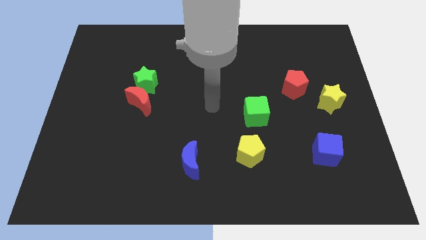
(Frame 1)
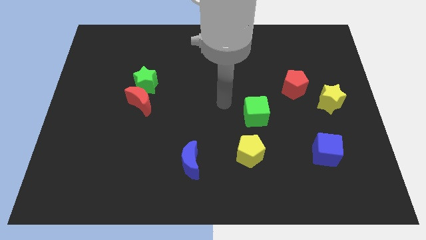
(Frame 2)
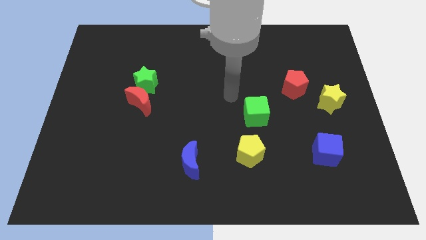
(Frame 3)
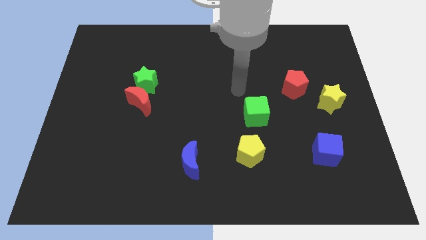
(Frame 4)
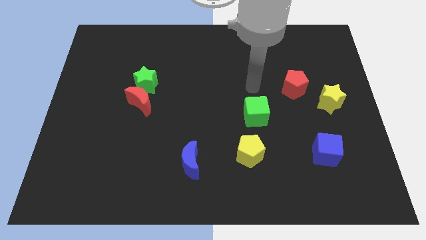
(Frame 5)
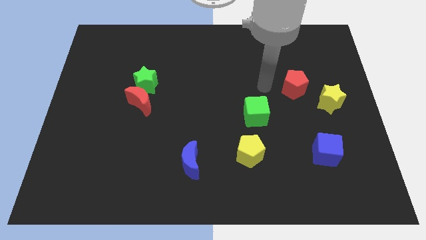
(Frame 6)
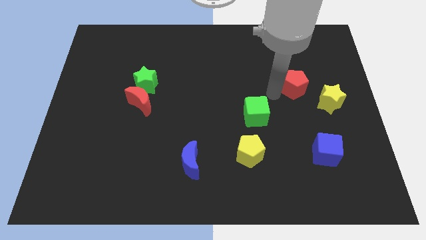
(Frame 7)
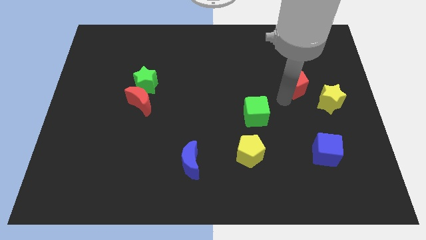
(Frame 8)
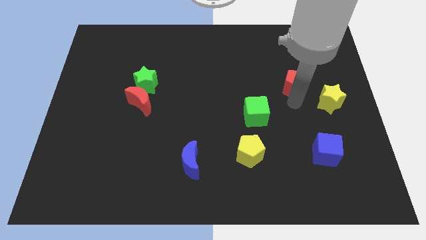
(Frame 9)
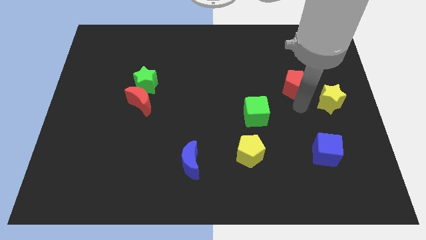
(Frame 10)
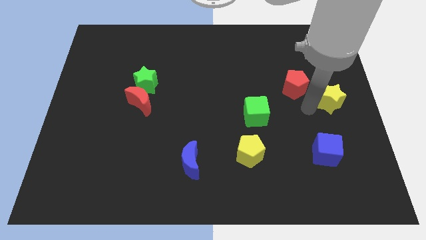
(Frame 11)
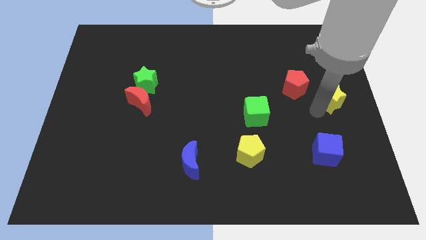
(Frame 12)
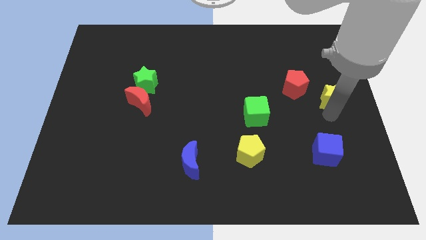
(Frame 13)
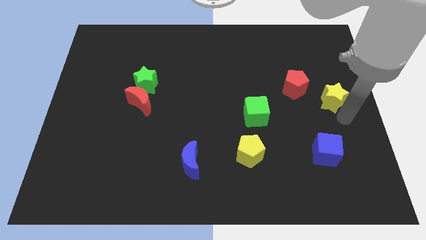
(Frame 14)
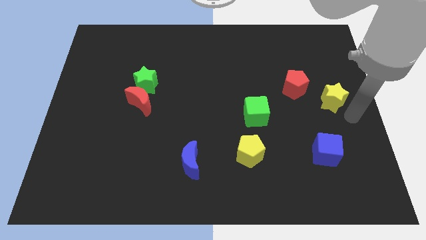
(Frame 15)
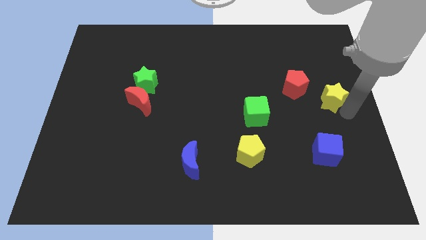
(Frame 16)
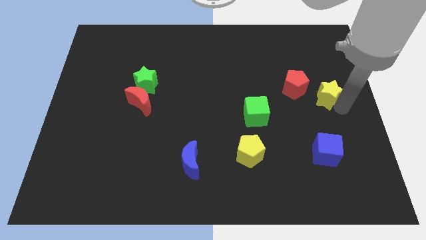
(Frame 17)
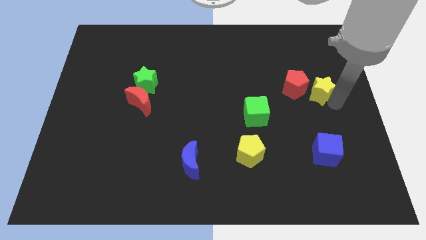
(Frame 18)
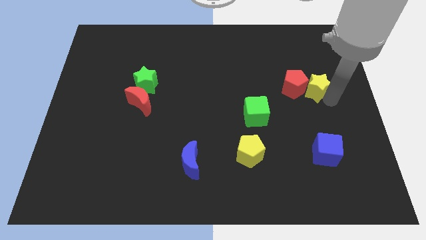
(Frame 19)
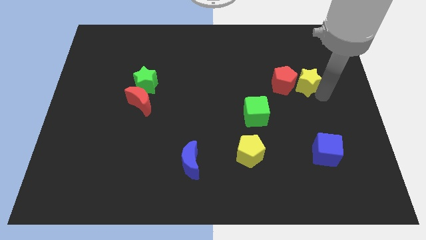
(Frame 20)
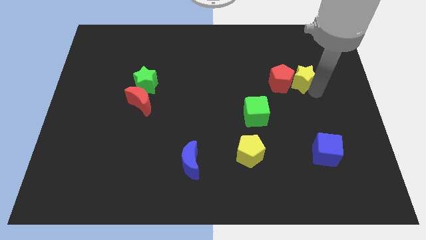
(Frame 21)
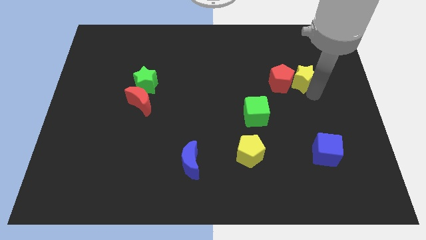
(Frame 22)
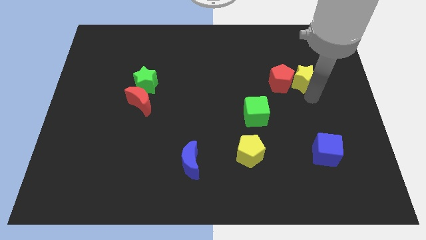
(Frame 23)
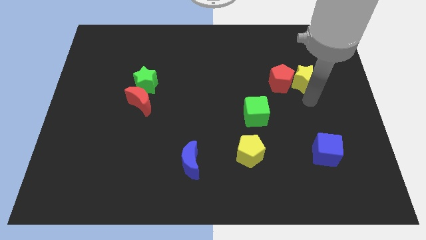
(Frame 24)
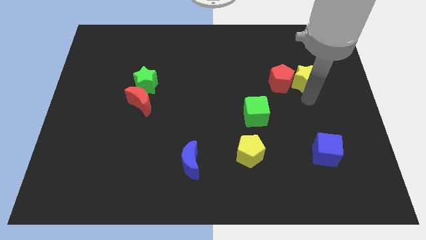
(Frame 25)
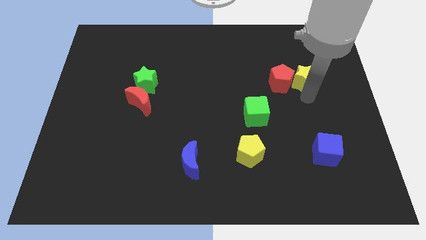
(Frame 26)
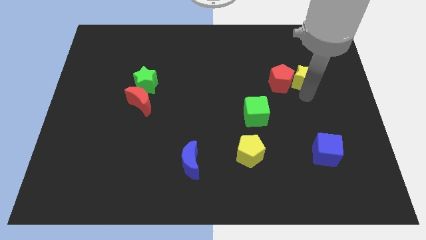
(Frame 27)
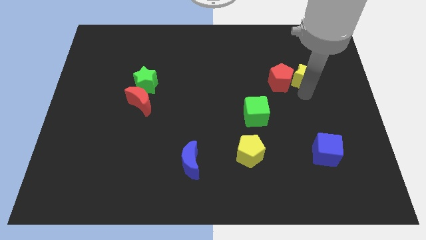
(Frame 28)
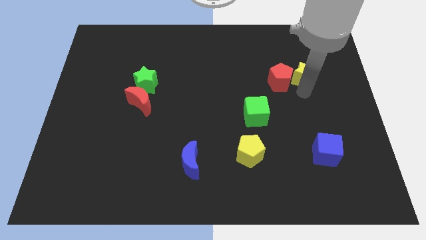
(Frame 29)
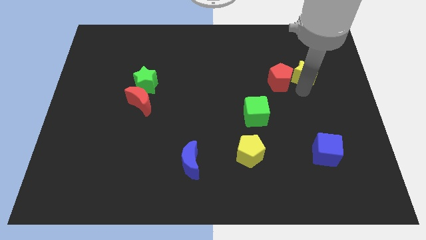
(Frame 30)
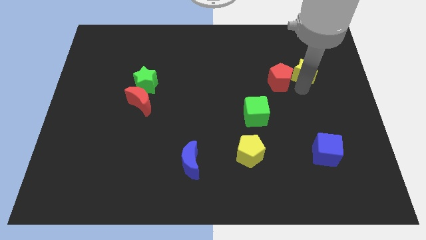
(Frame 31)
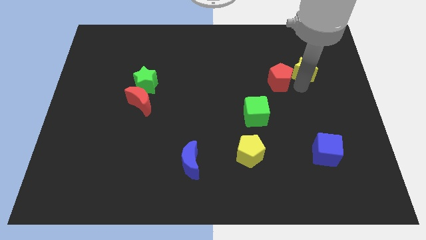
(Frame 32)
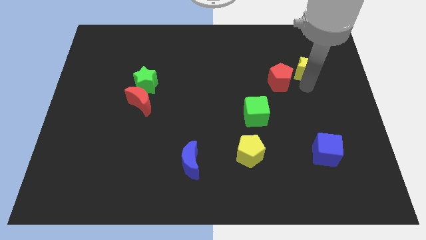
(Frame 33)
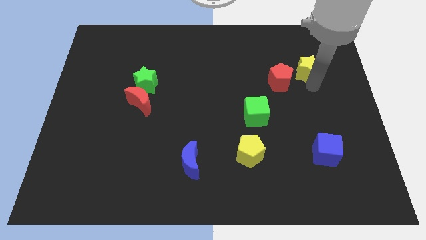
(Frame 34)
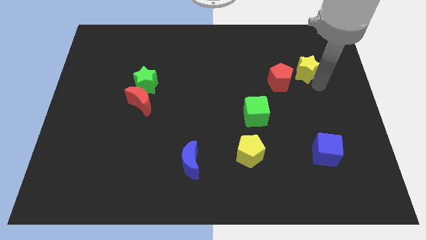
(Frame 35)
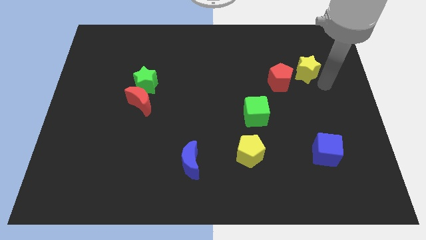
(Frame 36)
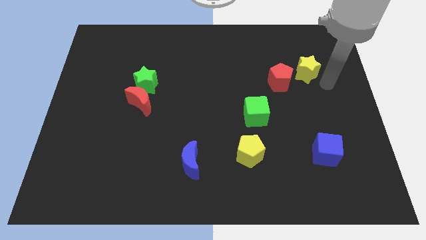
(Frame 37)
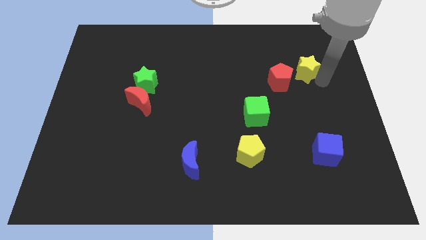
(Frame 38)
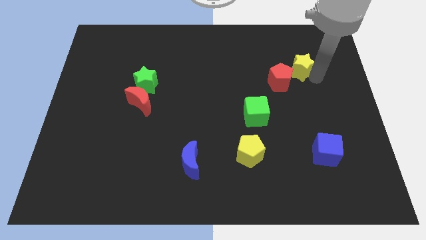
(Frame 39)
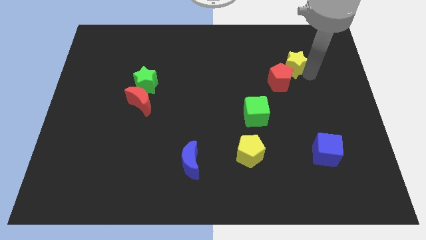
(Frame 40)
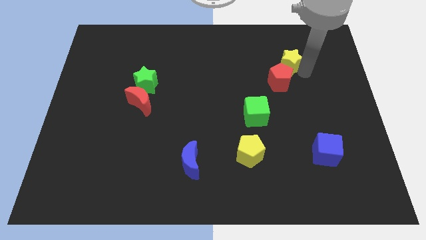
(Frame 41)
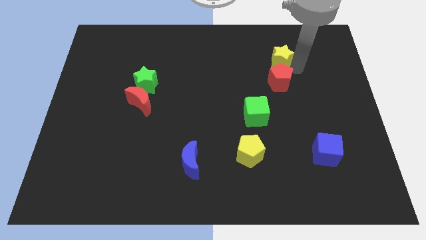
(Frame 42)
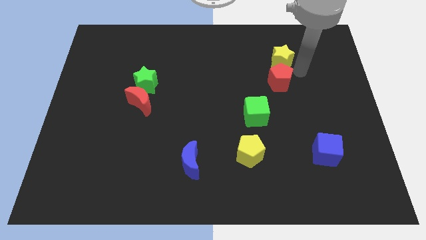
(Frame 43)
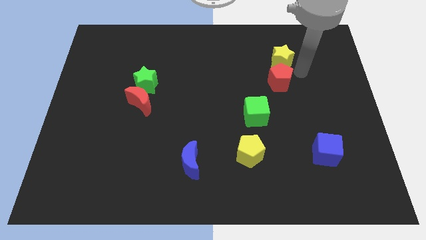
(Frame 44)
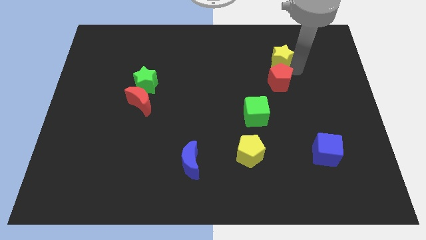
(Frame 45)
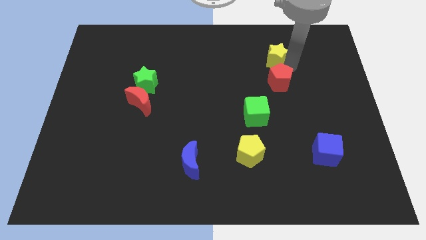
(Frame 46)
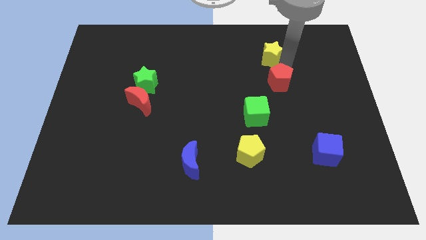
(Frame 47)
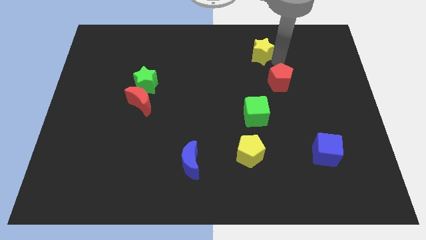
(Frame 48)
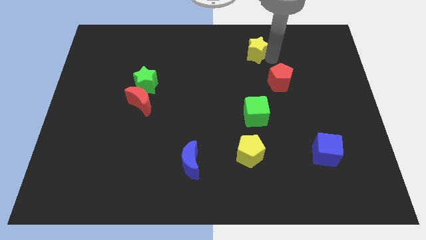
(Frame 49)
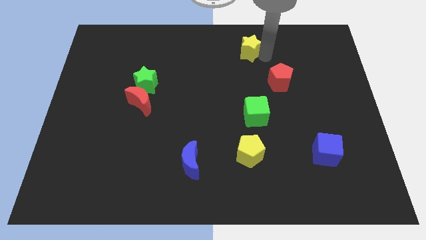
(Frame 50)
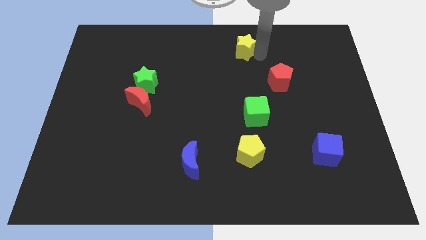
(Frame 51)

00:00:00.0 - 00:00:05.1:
push the yellow star to the top side
